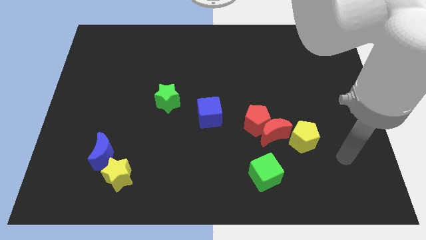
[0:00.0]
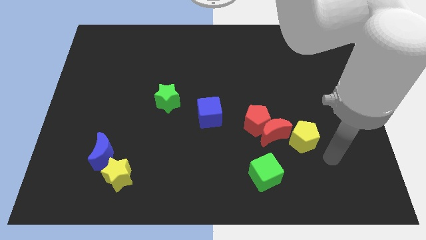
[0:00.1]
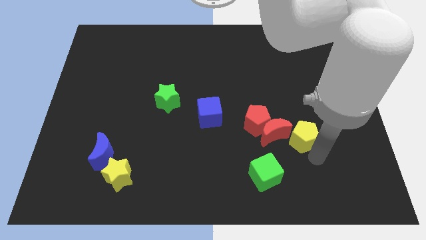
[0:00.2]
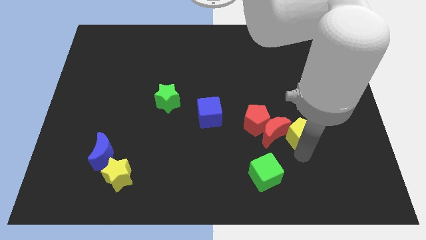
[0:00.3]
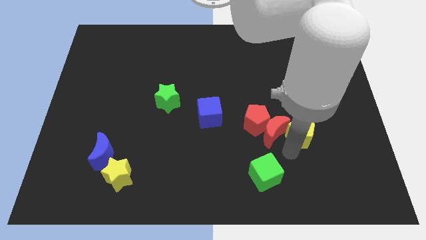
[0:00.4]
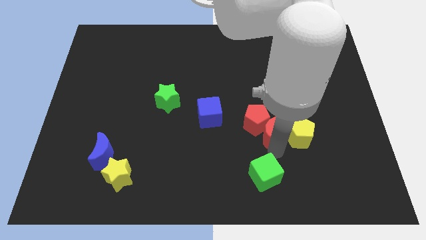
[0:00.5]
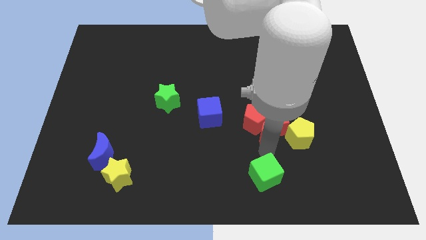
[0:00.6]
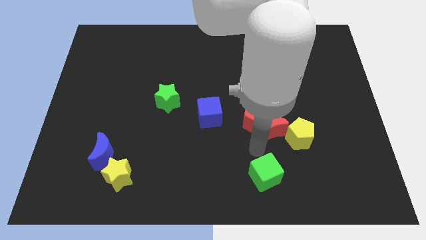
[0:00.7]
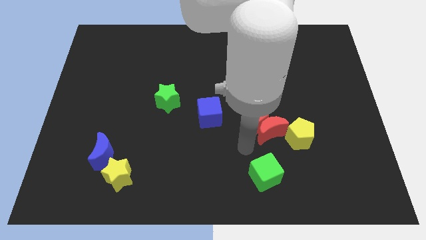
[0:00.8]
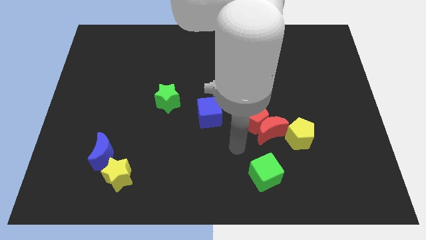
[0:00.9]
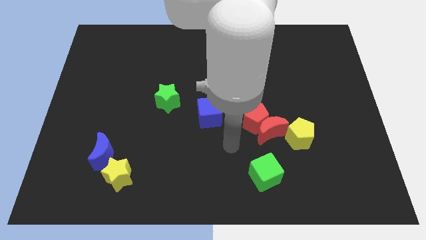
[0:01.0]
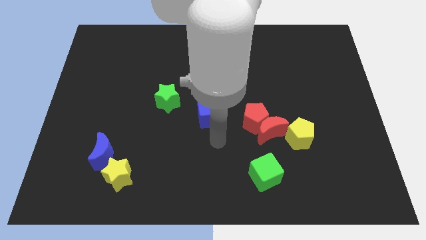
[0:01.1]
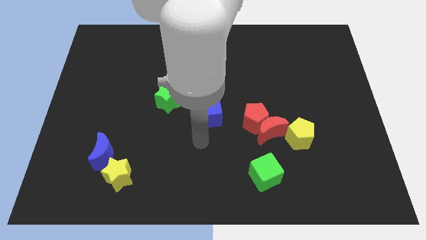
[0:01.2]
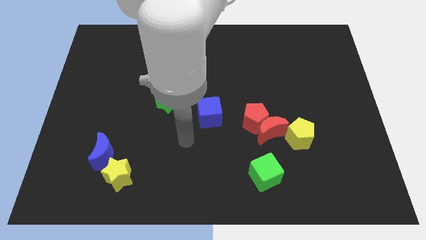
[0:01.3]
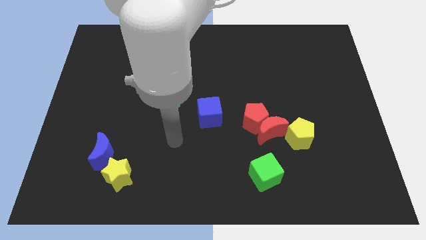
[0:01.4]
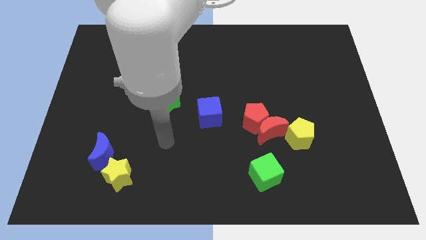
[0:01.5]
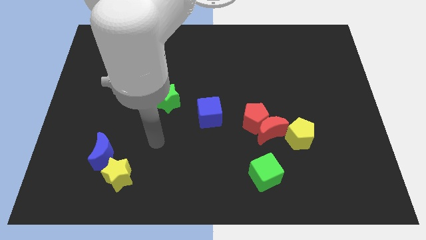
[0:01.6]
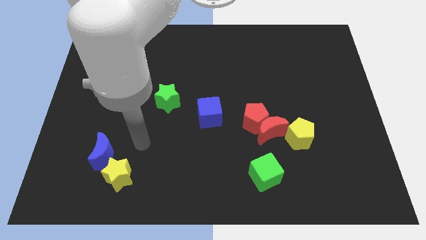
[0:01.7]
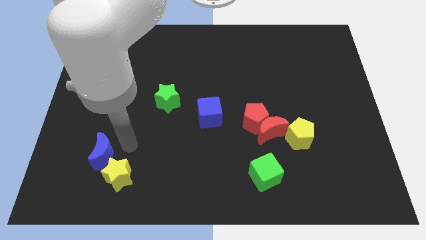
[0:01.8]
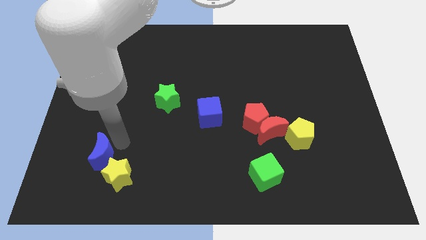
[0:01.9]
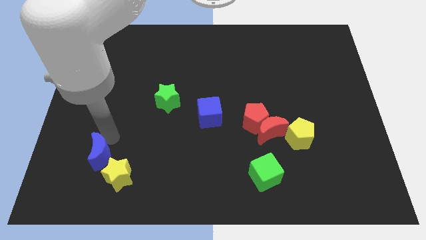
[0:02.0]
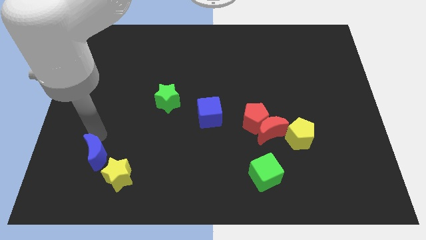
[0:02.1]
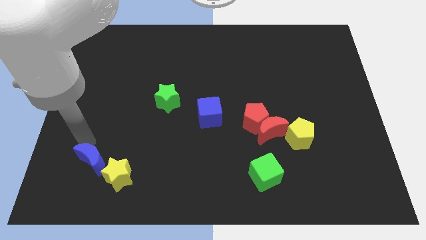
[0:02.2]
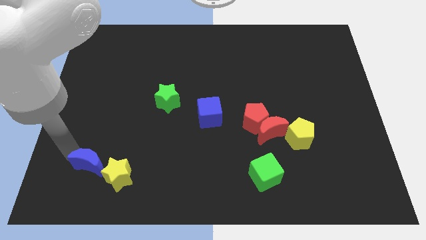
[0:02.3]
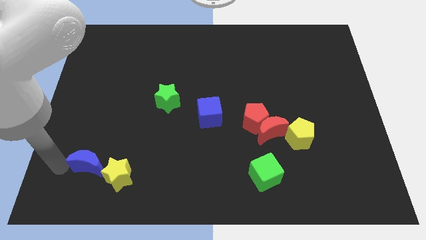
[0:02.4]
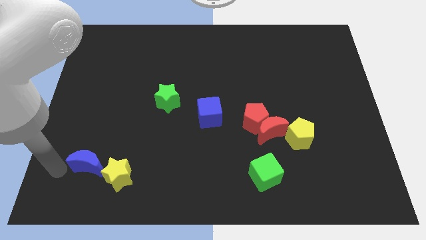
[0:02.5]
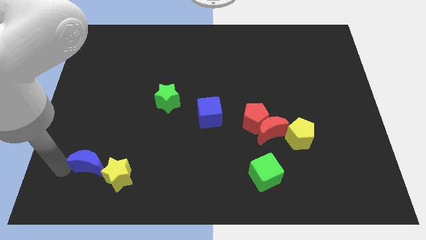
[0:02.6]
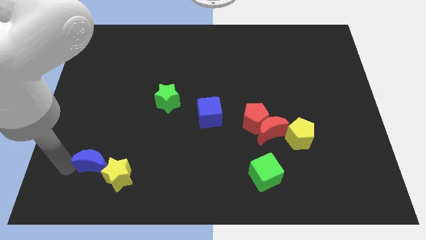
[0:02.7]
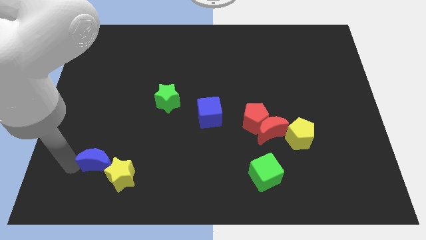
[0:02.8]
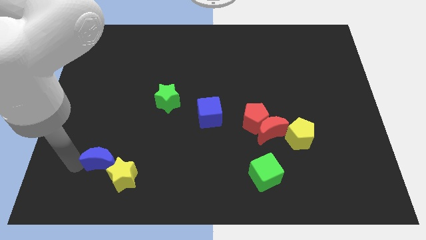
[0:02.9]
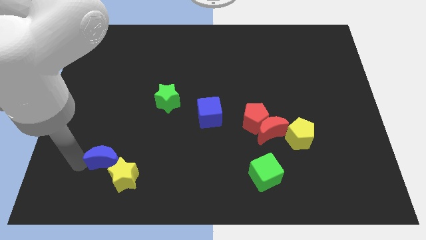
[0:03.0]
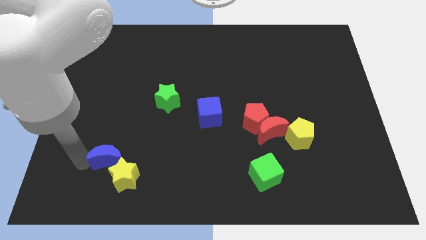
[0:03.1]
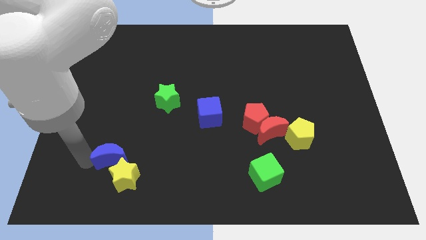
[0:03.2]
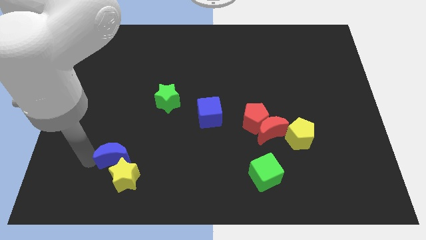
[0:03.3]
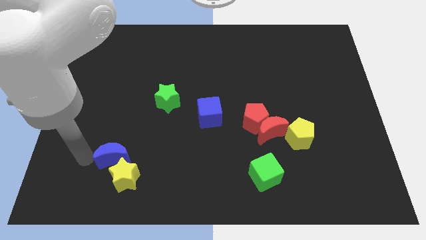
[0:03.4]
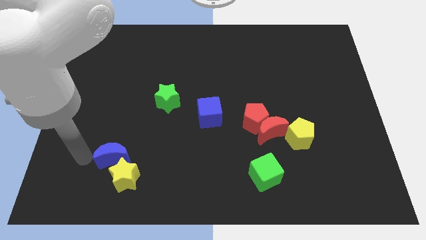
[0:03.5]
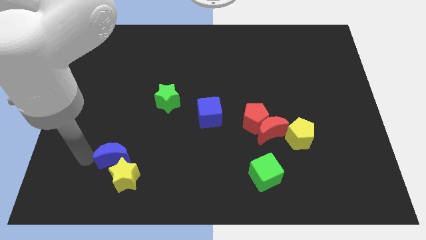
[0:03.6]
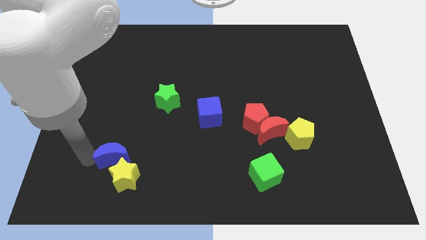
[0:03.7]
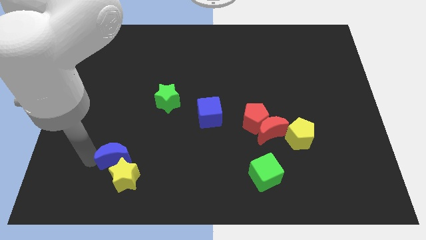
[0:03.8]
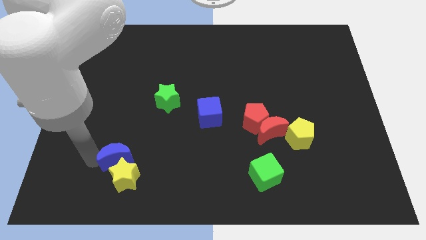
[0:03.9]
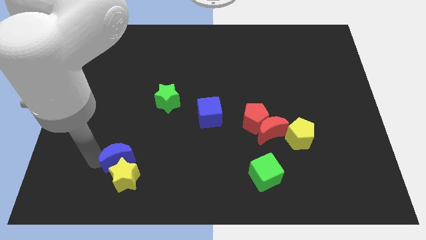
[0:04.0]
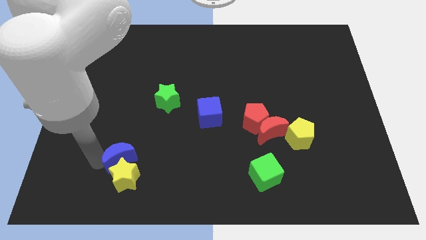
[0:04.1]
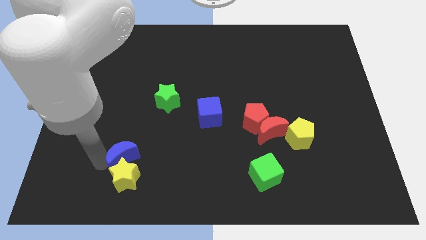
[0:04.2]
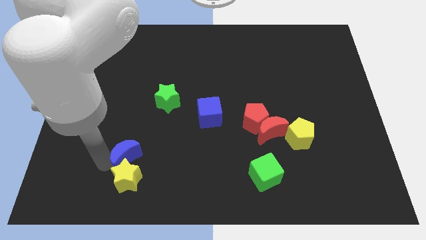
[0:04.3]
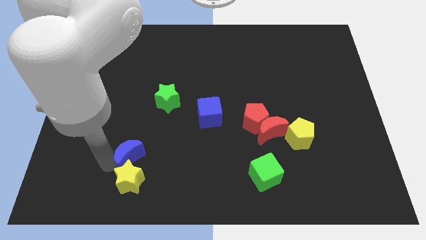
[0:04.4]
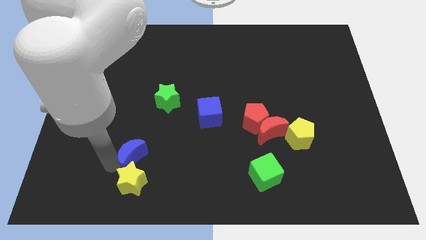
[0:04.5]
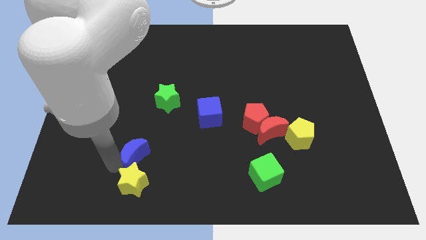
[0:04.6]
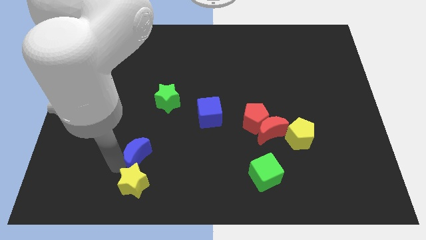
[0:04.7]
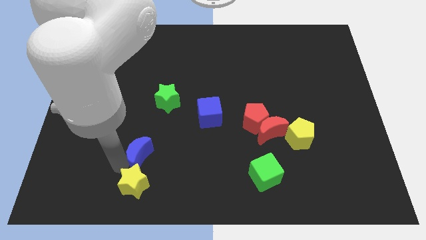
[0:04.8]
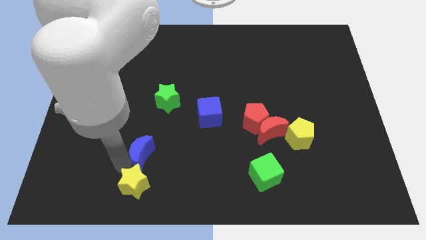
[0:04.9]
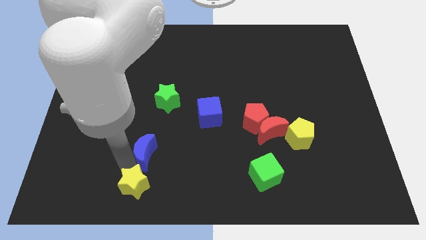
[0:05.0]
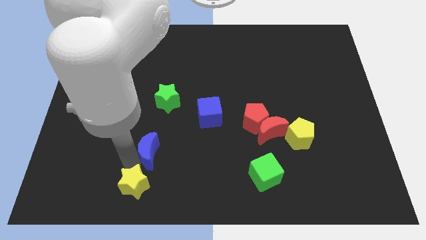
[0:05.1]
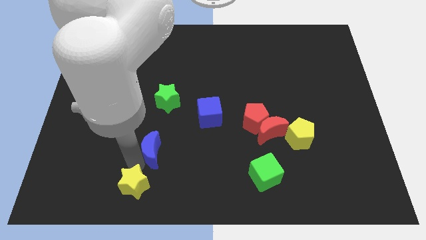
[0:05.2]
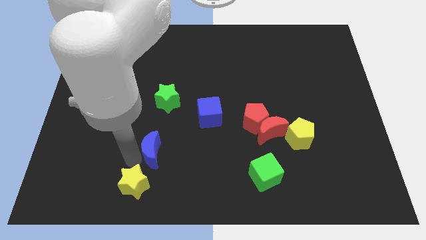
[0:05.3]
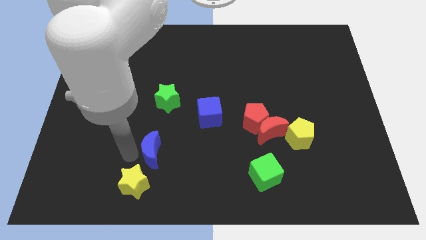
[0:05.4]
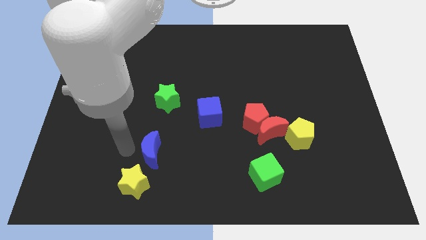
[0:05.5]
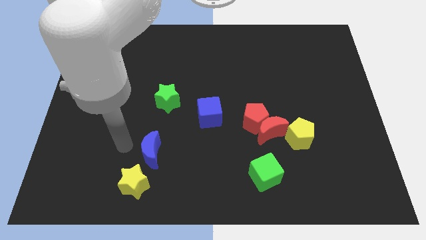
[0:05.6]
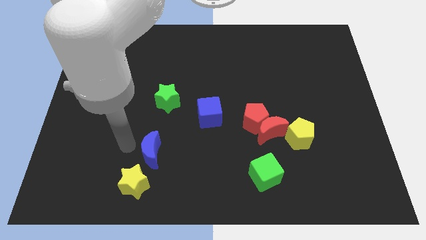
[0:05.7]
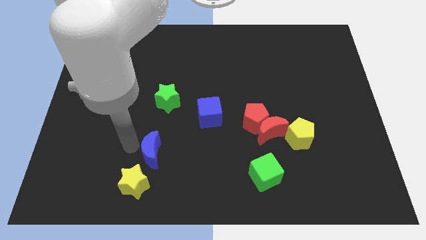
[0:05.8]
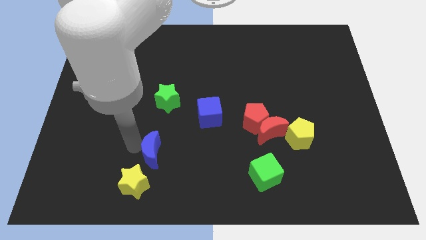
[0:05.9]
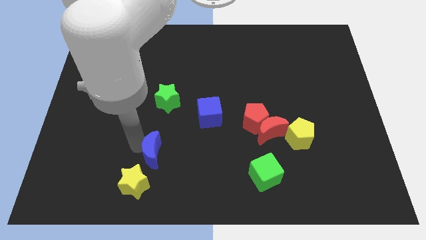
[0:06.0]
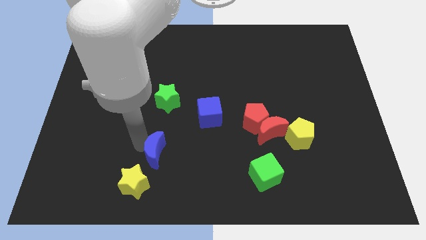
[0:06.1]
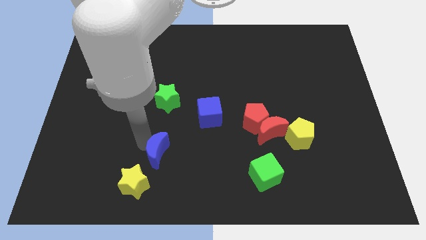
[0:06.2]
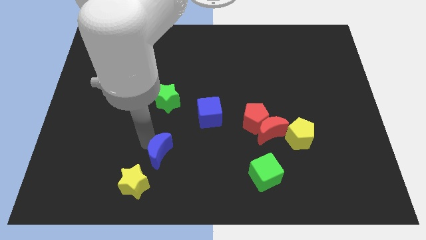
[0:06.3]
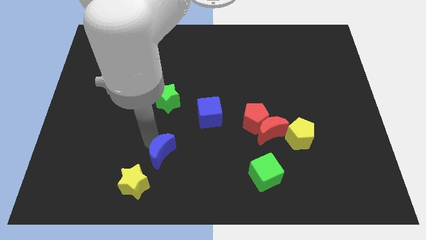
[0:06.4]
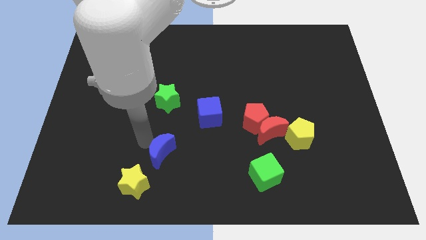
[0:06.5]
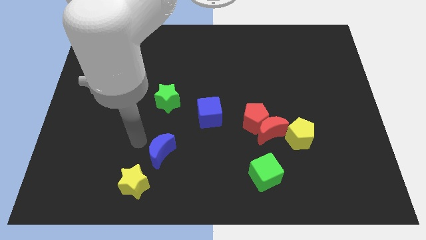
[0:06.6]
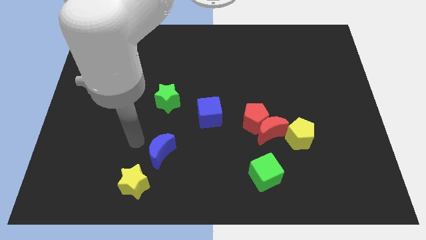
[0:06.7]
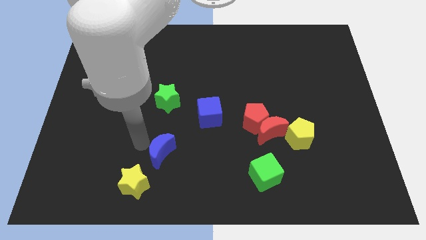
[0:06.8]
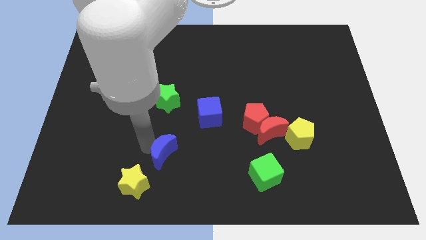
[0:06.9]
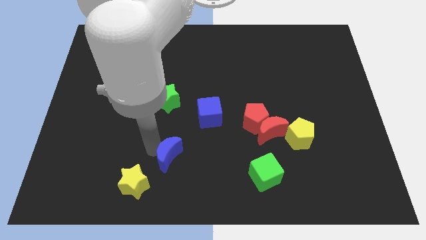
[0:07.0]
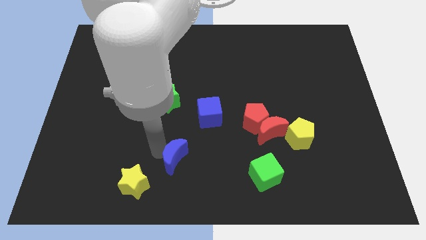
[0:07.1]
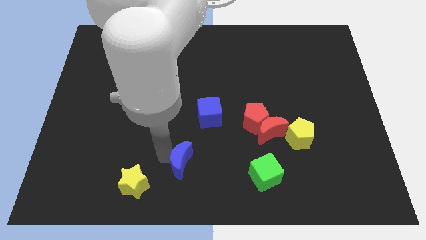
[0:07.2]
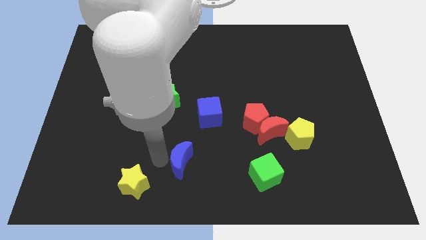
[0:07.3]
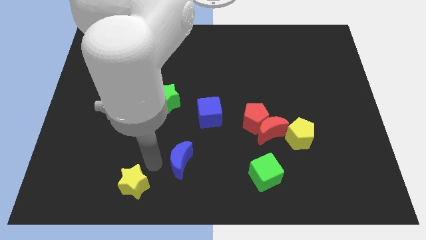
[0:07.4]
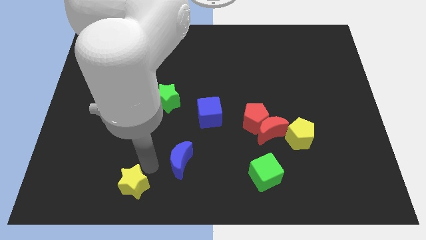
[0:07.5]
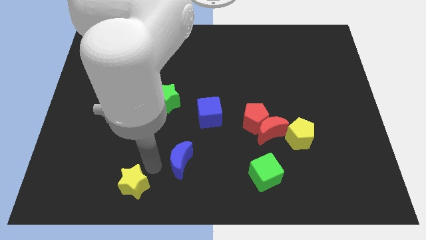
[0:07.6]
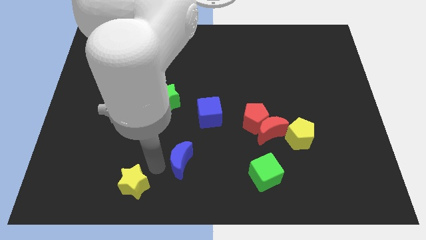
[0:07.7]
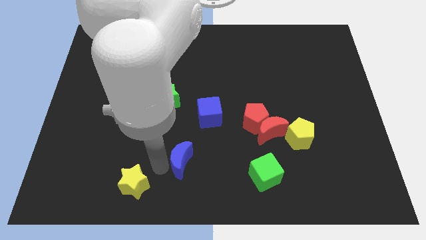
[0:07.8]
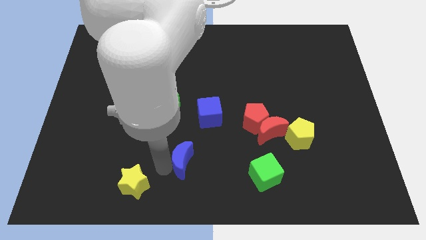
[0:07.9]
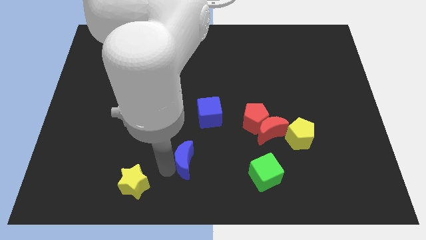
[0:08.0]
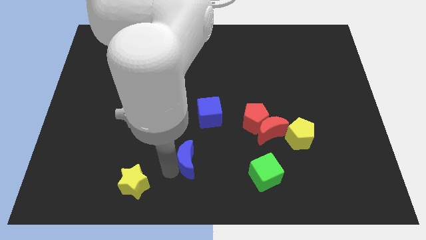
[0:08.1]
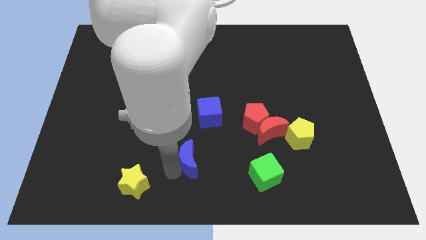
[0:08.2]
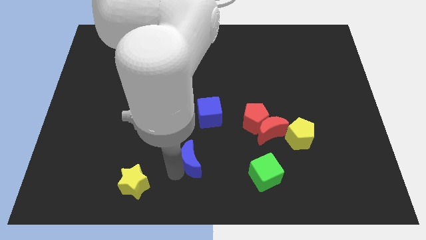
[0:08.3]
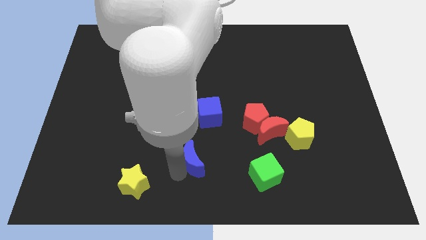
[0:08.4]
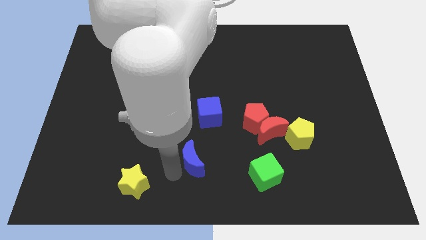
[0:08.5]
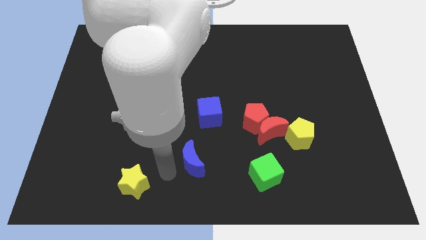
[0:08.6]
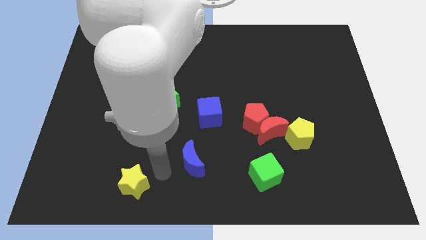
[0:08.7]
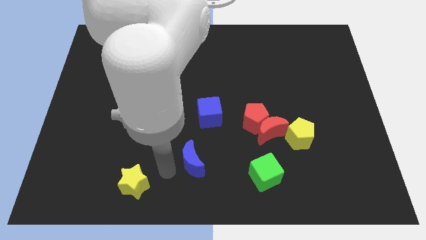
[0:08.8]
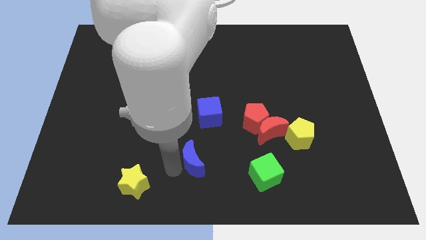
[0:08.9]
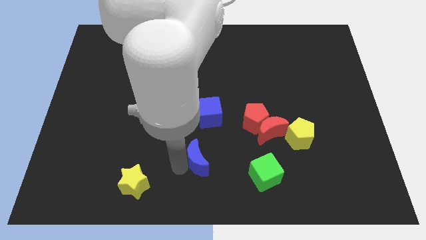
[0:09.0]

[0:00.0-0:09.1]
push the blue moon right
